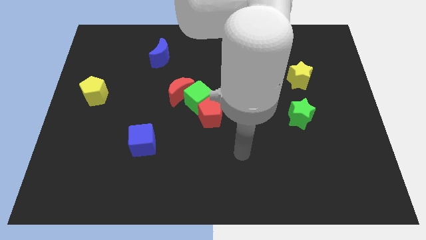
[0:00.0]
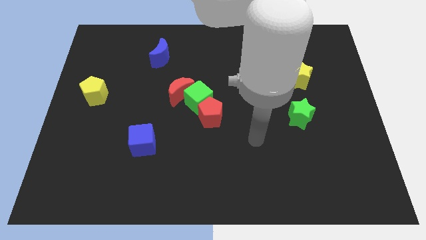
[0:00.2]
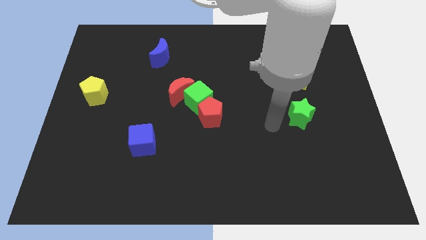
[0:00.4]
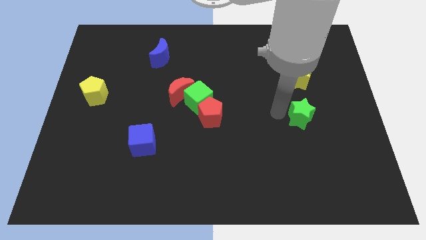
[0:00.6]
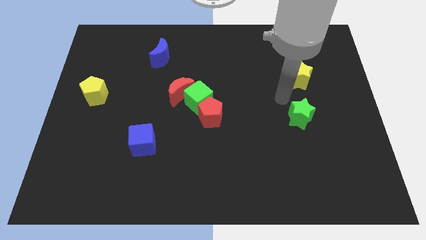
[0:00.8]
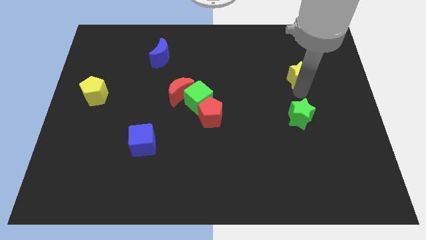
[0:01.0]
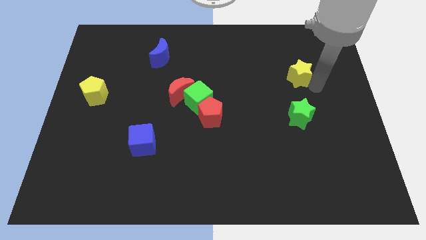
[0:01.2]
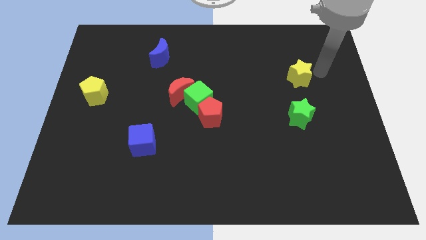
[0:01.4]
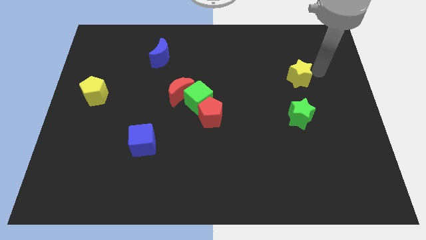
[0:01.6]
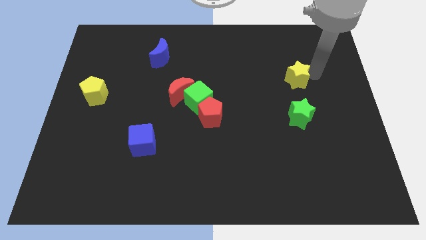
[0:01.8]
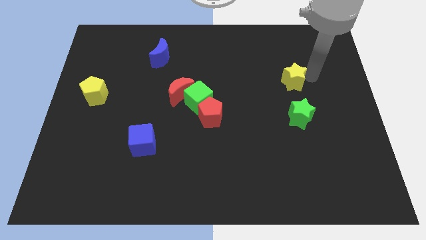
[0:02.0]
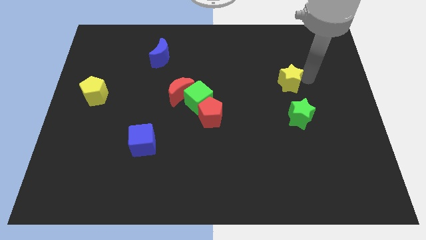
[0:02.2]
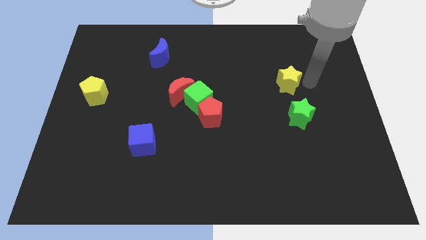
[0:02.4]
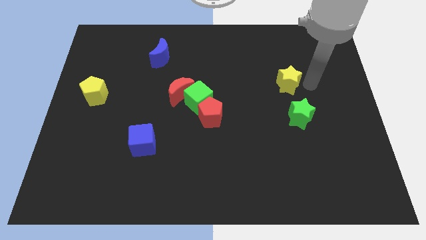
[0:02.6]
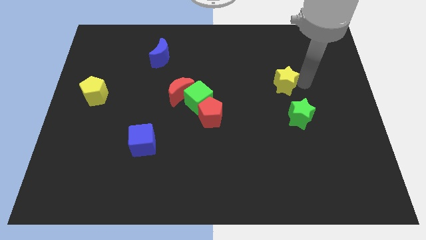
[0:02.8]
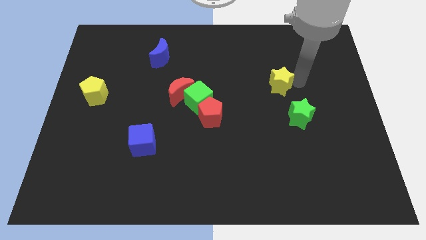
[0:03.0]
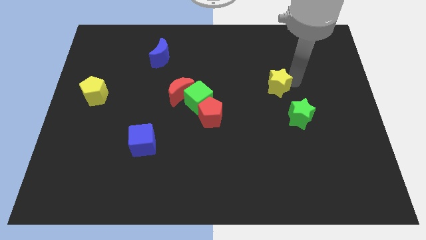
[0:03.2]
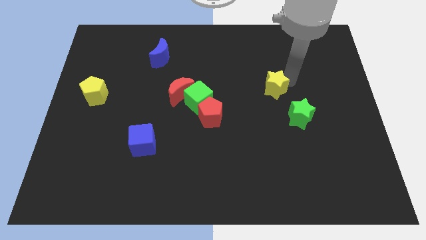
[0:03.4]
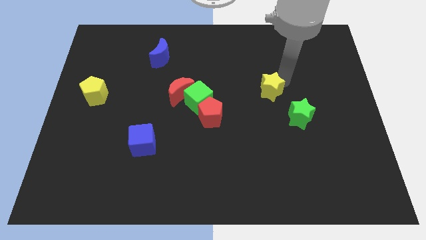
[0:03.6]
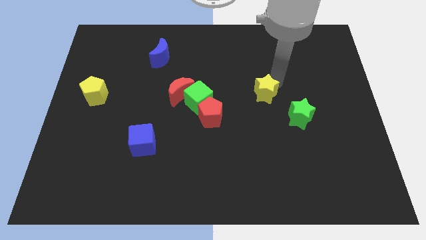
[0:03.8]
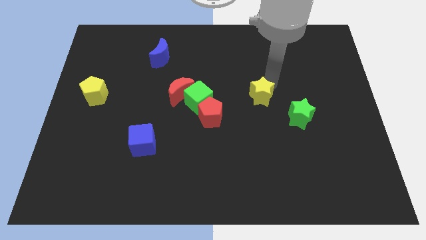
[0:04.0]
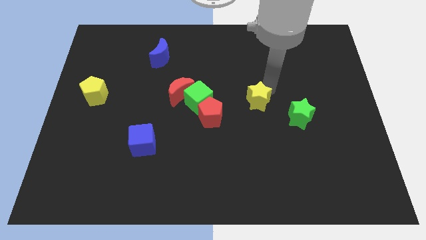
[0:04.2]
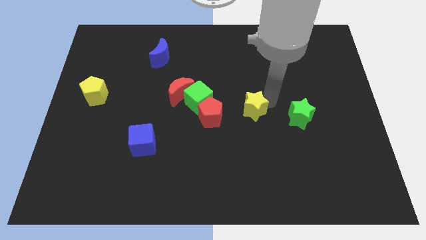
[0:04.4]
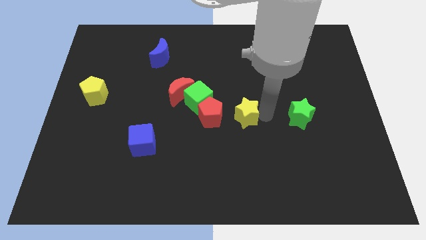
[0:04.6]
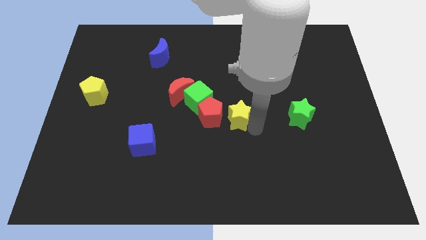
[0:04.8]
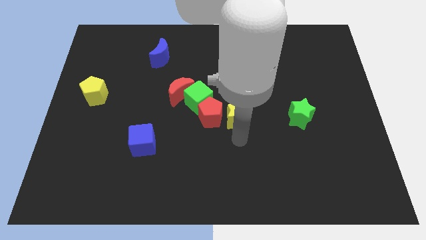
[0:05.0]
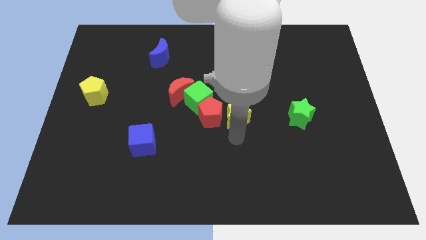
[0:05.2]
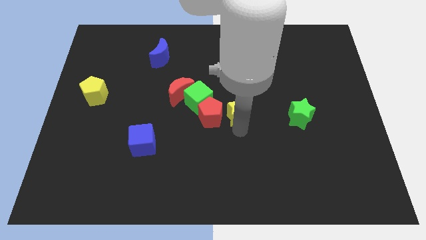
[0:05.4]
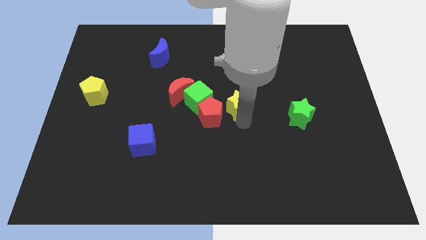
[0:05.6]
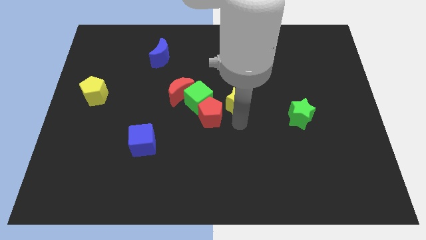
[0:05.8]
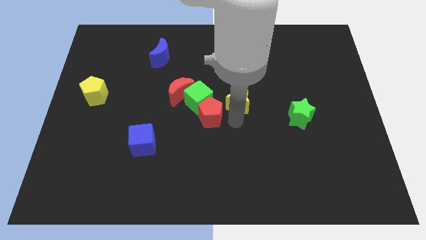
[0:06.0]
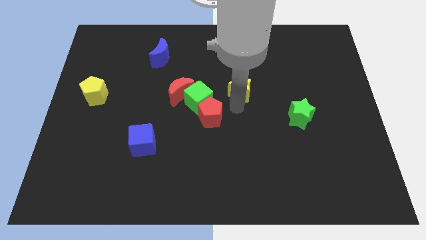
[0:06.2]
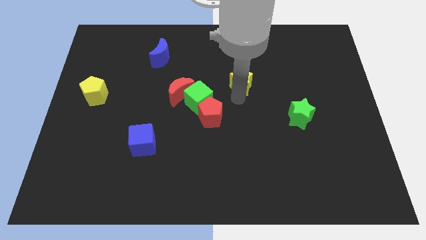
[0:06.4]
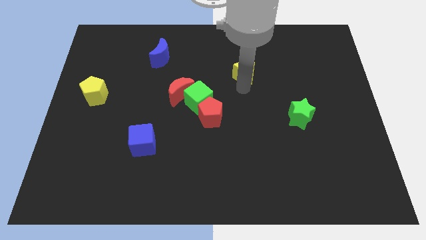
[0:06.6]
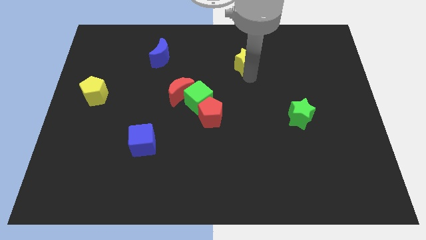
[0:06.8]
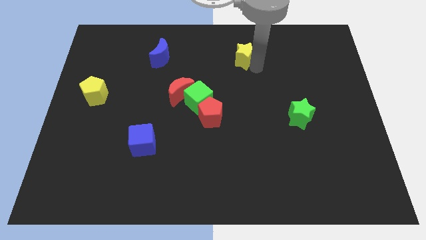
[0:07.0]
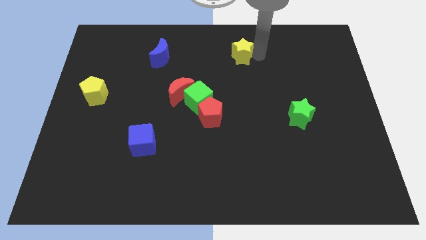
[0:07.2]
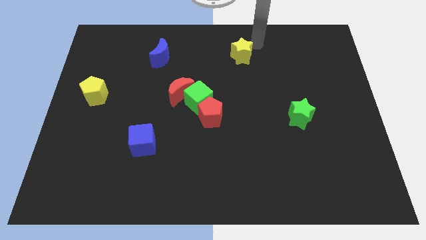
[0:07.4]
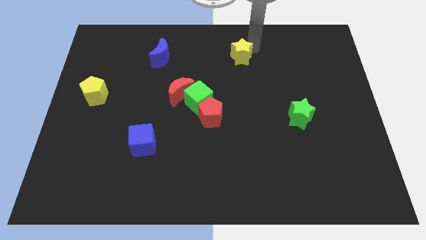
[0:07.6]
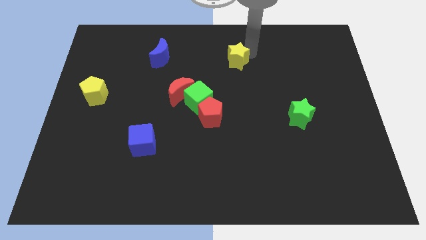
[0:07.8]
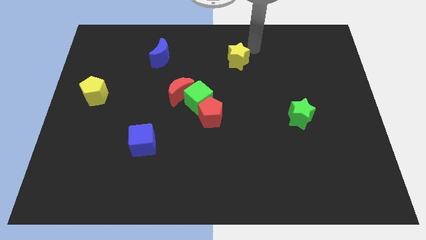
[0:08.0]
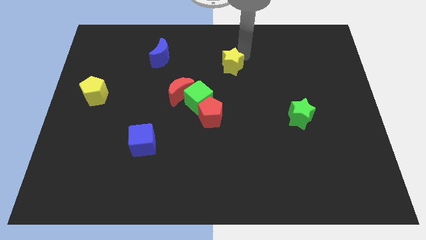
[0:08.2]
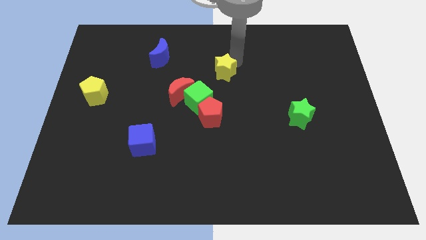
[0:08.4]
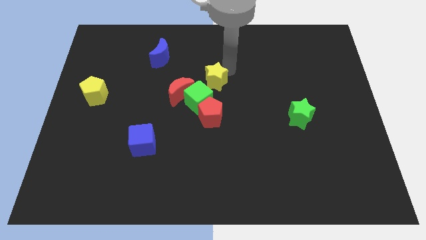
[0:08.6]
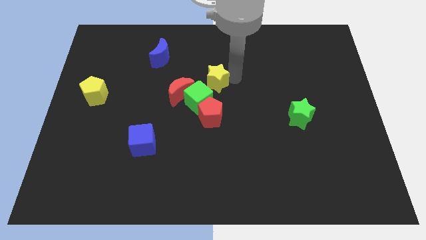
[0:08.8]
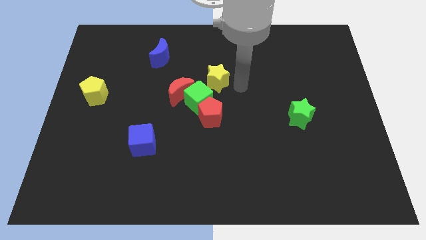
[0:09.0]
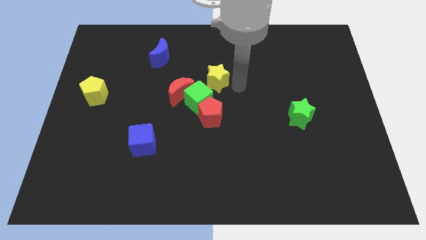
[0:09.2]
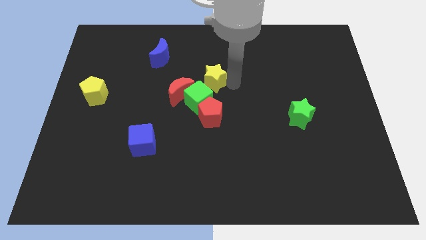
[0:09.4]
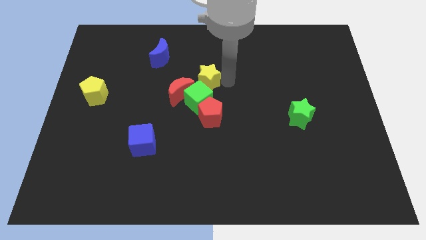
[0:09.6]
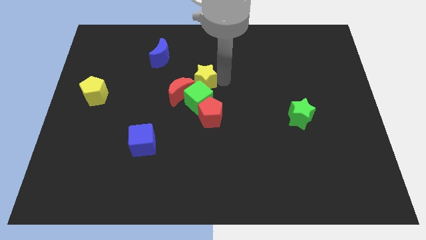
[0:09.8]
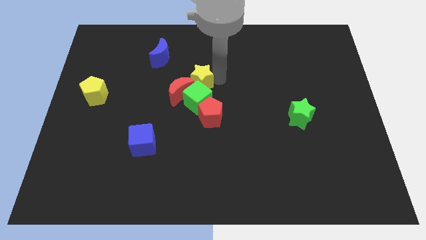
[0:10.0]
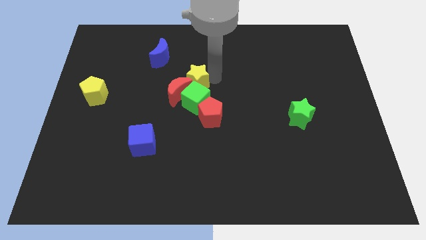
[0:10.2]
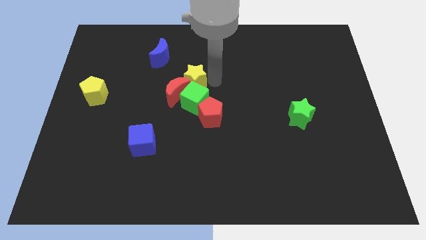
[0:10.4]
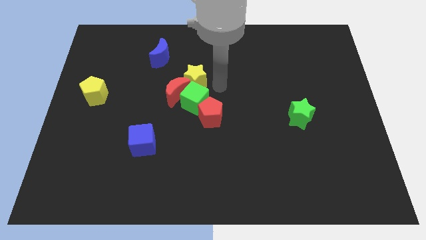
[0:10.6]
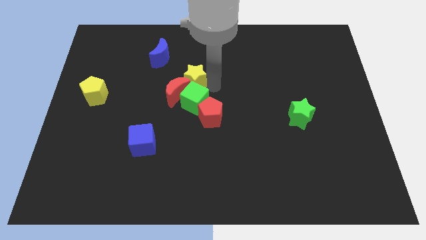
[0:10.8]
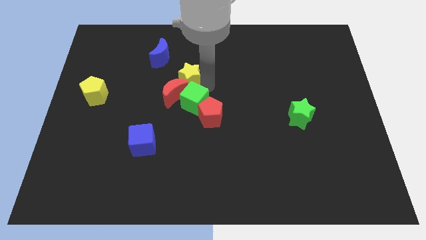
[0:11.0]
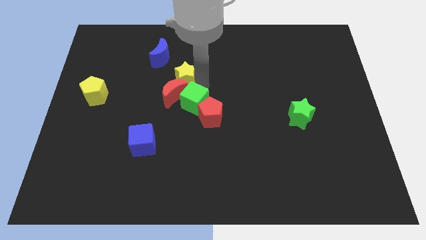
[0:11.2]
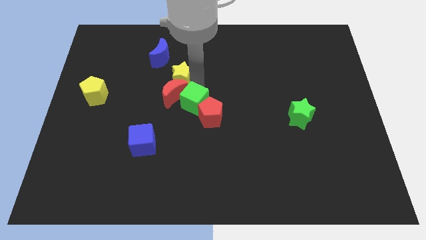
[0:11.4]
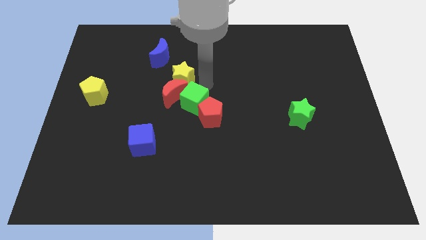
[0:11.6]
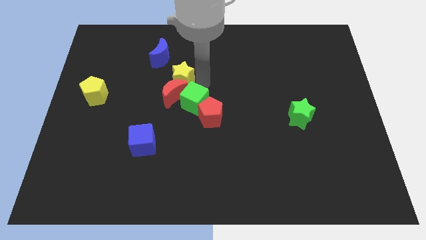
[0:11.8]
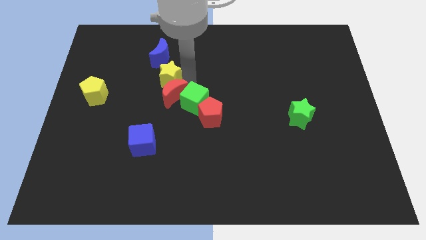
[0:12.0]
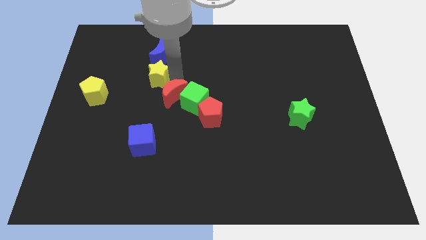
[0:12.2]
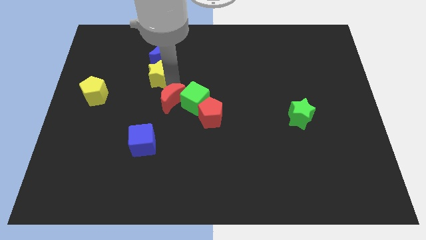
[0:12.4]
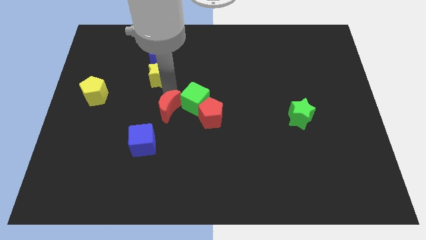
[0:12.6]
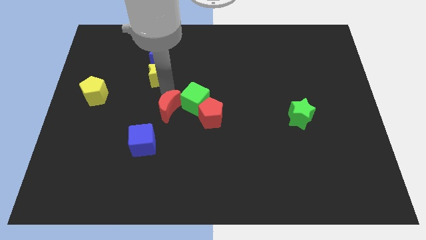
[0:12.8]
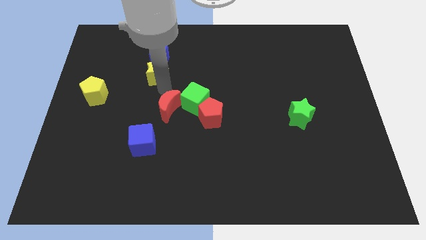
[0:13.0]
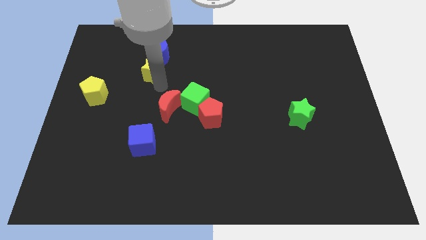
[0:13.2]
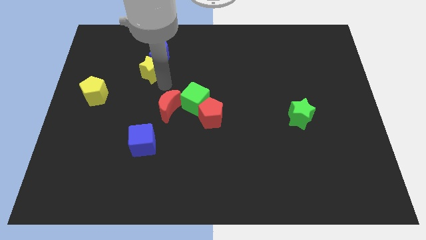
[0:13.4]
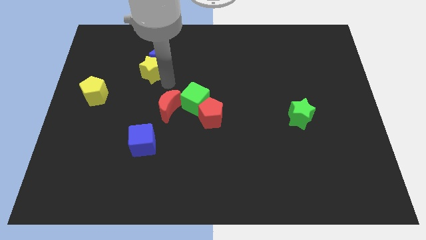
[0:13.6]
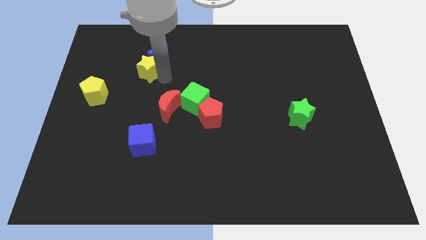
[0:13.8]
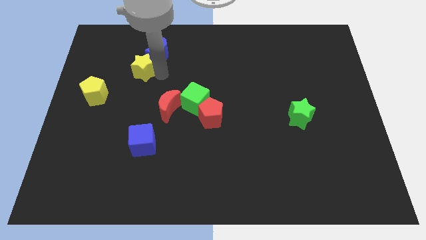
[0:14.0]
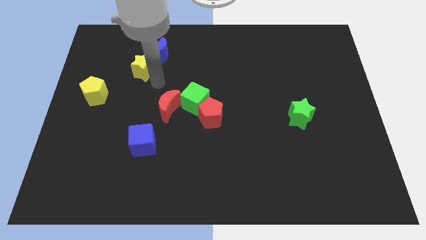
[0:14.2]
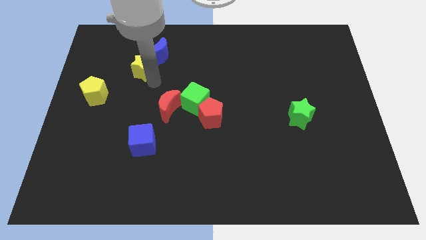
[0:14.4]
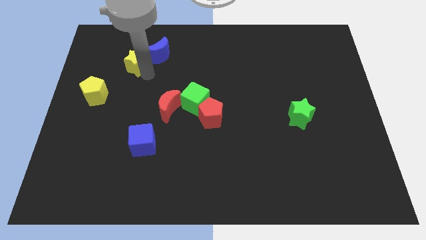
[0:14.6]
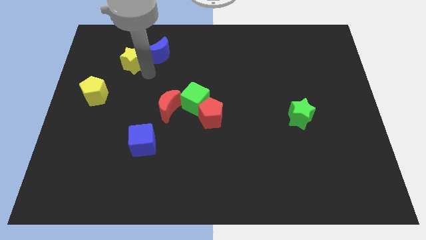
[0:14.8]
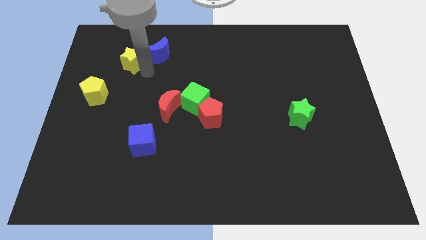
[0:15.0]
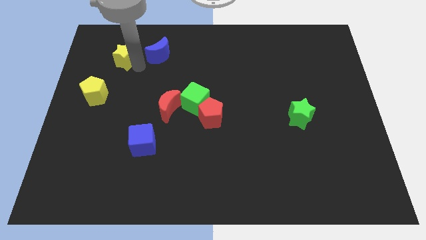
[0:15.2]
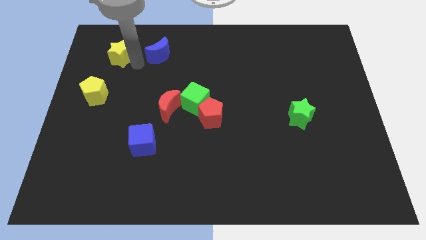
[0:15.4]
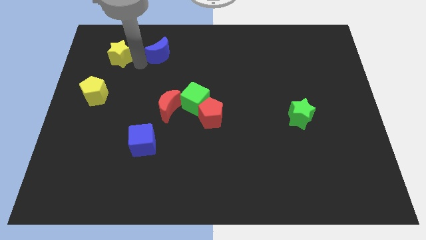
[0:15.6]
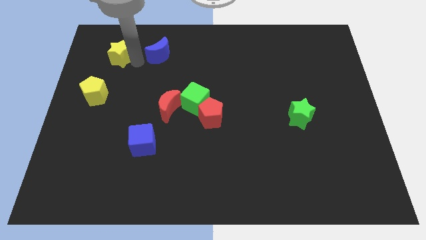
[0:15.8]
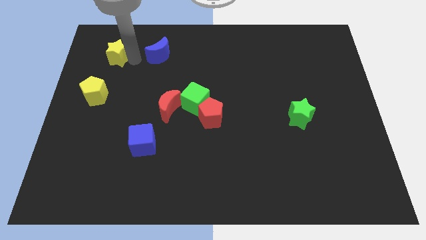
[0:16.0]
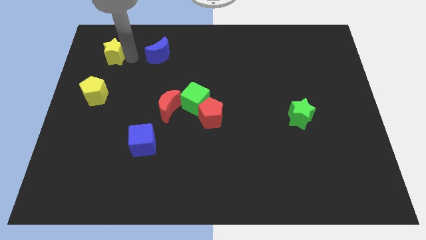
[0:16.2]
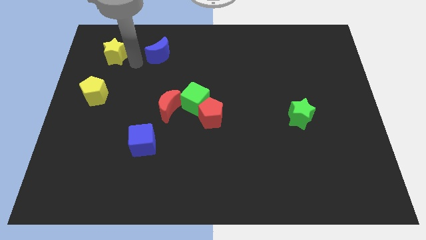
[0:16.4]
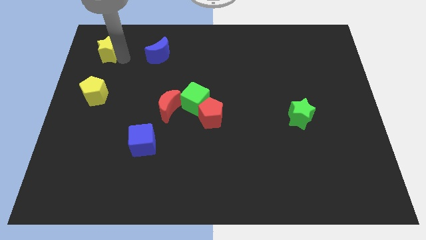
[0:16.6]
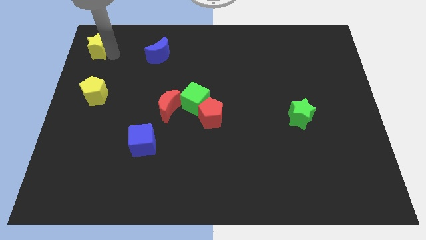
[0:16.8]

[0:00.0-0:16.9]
put the yellow star to the top left of the board
